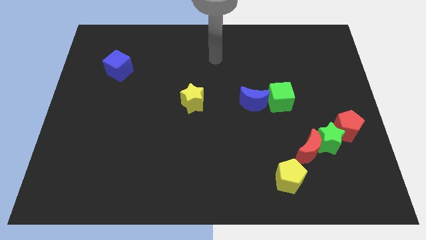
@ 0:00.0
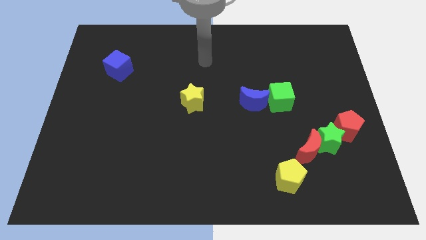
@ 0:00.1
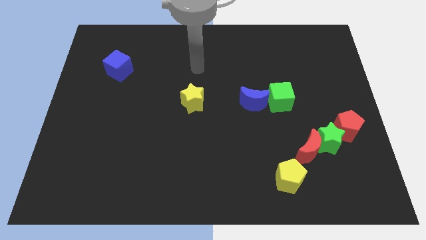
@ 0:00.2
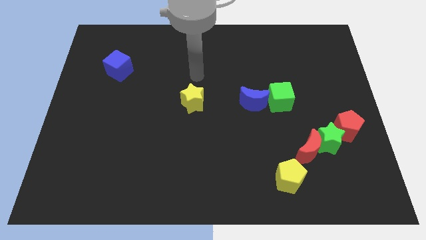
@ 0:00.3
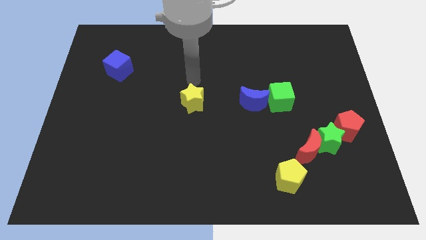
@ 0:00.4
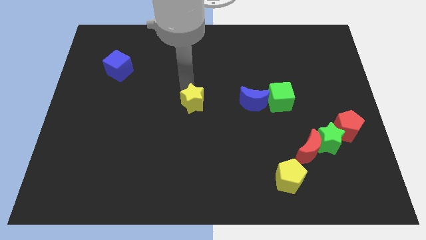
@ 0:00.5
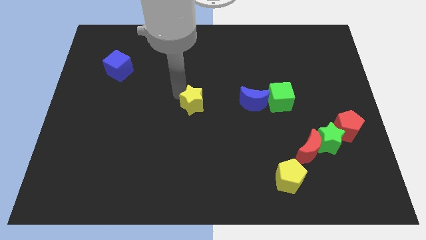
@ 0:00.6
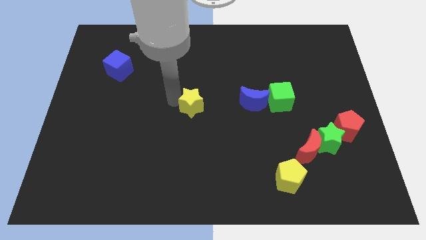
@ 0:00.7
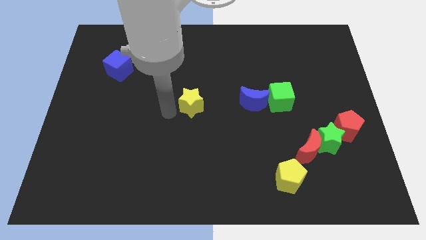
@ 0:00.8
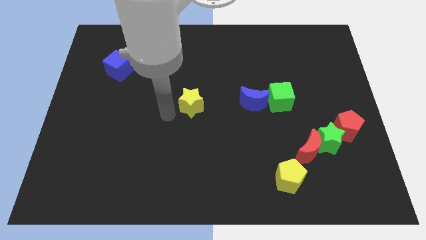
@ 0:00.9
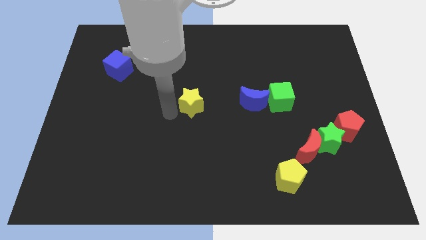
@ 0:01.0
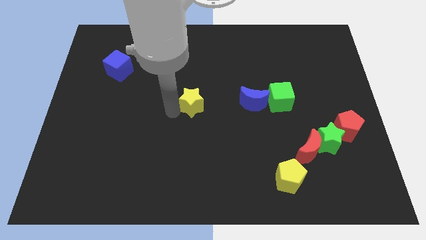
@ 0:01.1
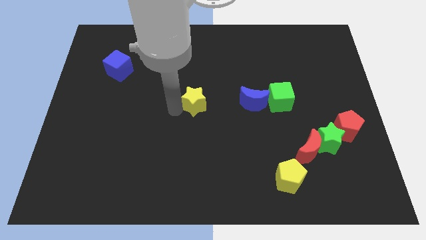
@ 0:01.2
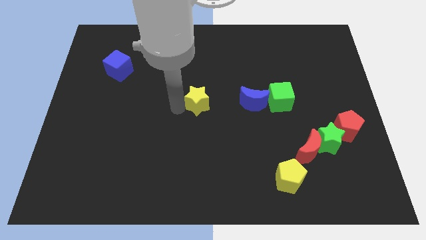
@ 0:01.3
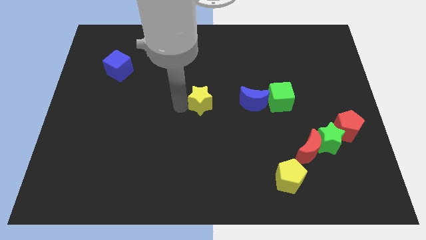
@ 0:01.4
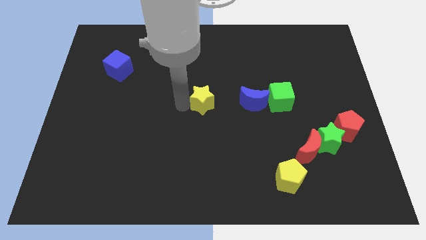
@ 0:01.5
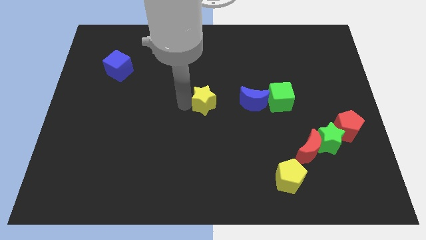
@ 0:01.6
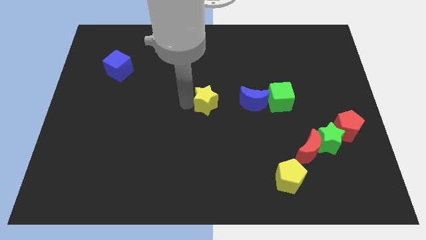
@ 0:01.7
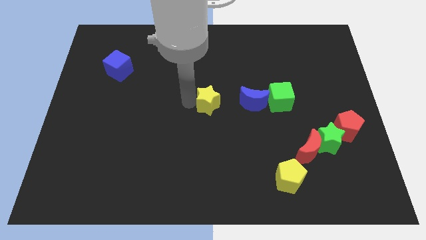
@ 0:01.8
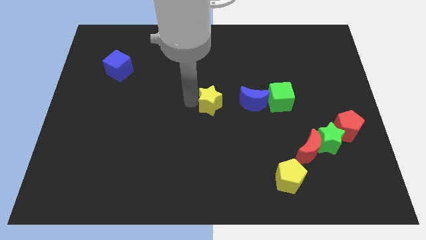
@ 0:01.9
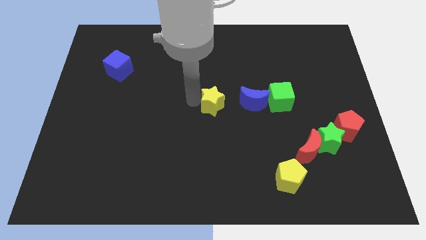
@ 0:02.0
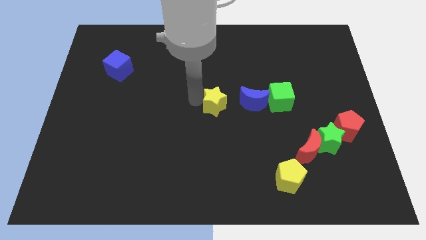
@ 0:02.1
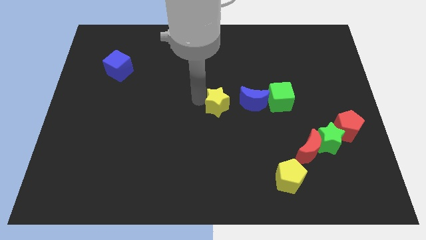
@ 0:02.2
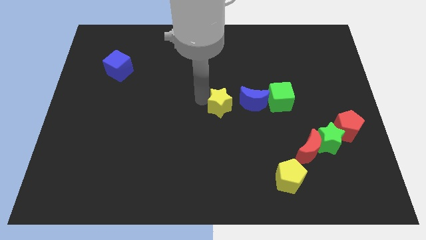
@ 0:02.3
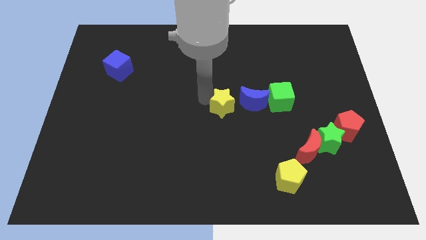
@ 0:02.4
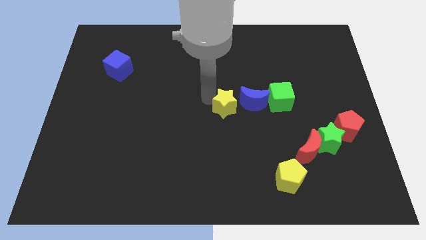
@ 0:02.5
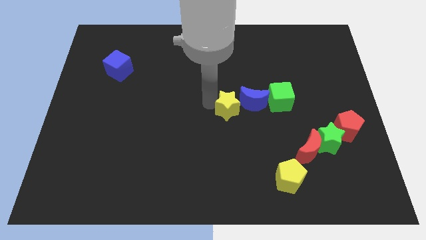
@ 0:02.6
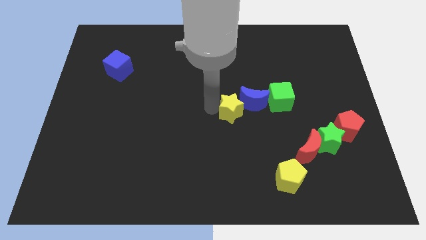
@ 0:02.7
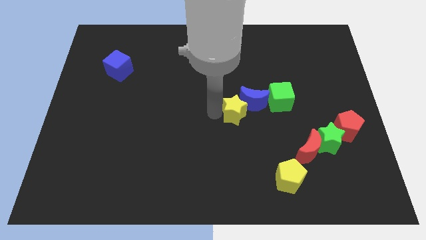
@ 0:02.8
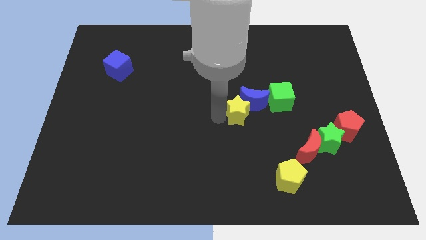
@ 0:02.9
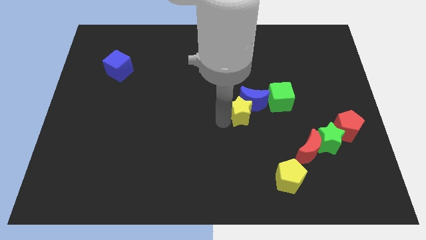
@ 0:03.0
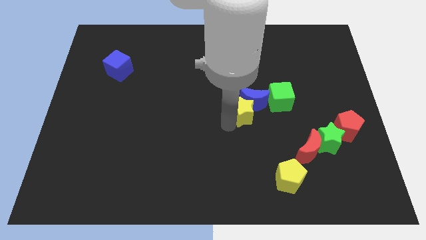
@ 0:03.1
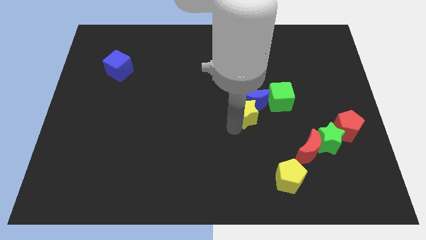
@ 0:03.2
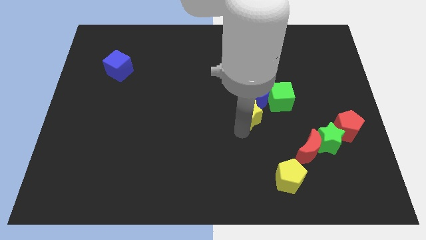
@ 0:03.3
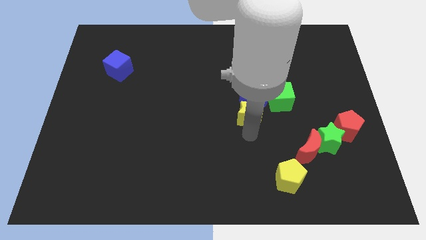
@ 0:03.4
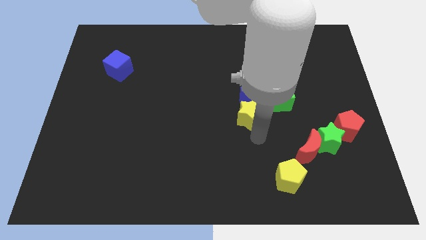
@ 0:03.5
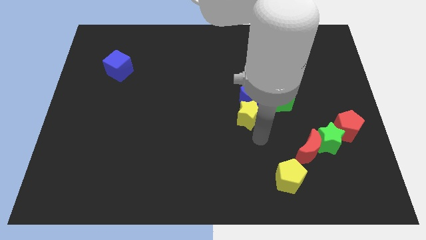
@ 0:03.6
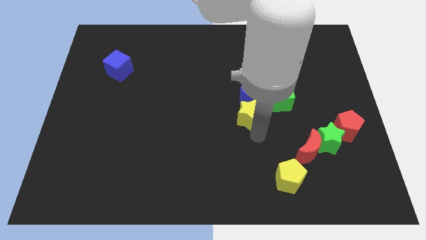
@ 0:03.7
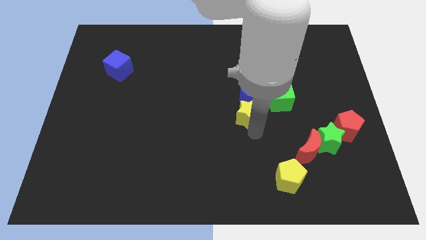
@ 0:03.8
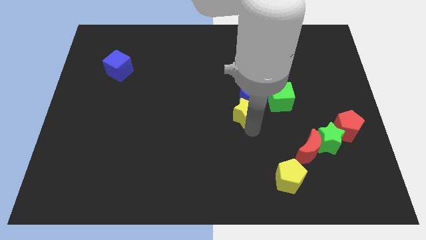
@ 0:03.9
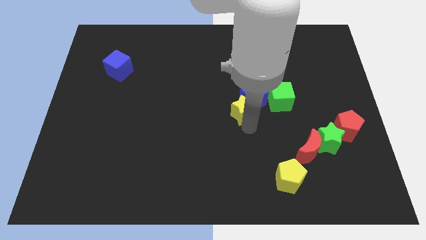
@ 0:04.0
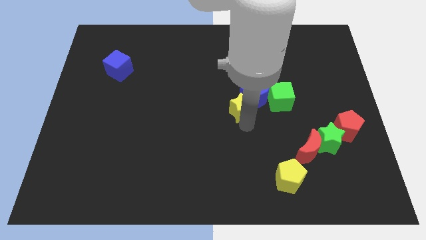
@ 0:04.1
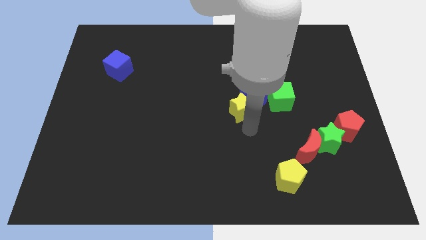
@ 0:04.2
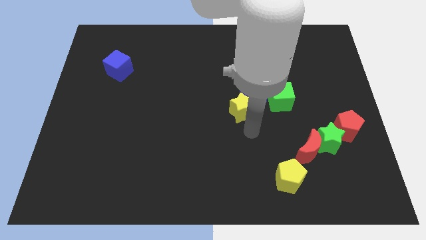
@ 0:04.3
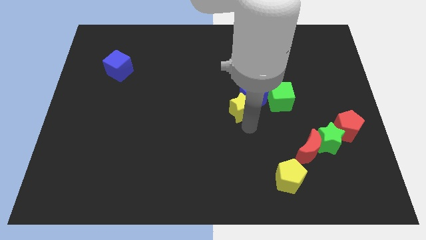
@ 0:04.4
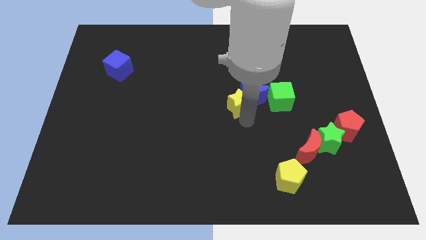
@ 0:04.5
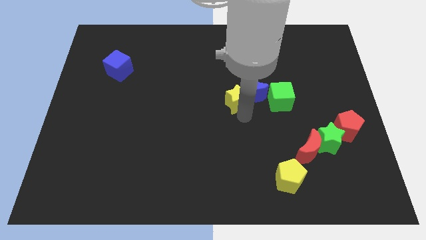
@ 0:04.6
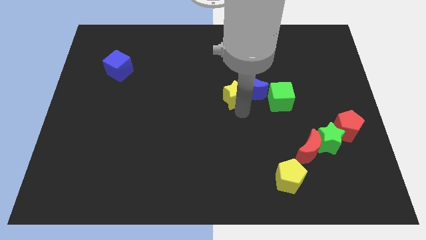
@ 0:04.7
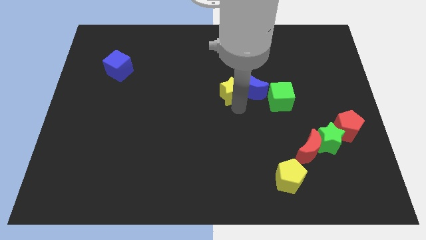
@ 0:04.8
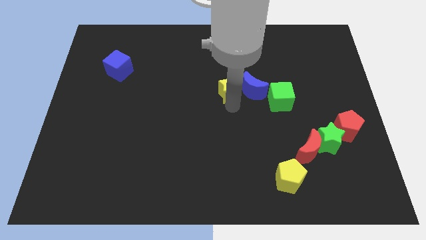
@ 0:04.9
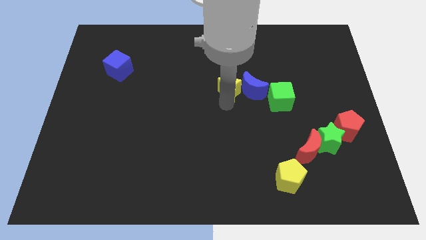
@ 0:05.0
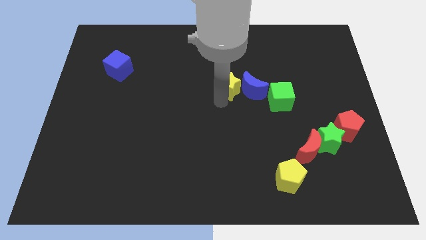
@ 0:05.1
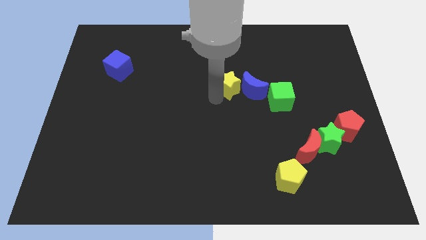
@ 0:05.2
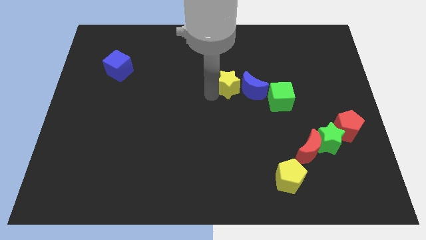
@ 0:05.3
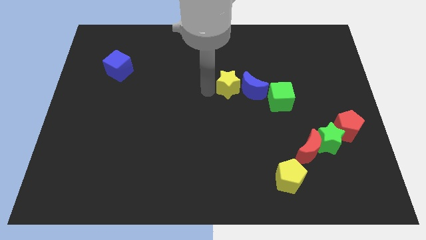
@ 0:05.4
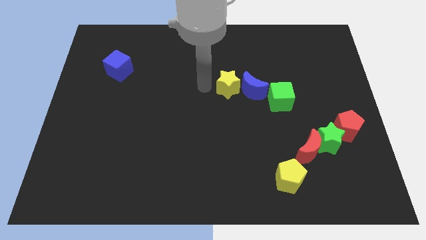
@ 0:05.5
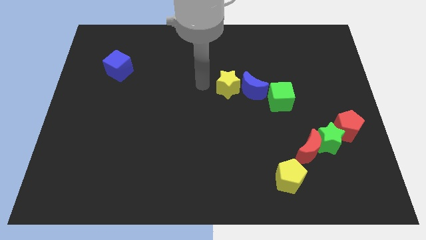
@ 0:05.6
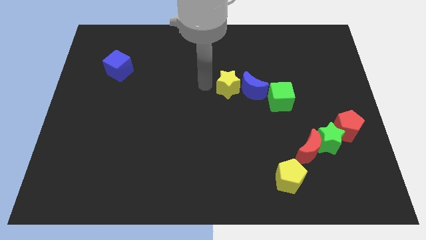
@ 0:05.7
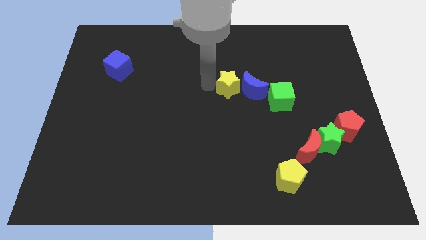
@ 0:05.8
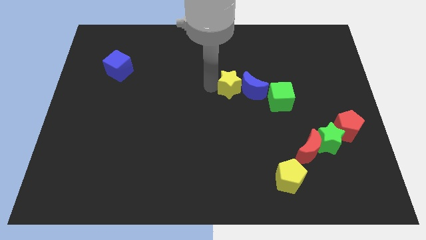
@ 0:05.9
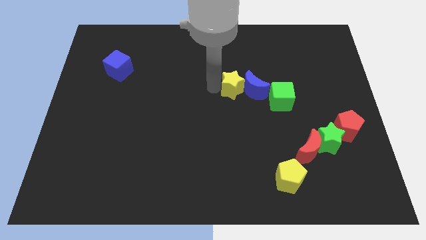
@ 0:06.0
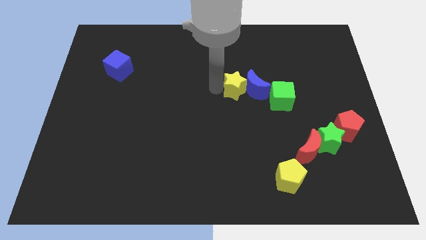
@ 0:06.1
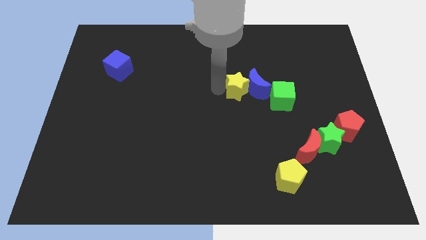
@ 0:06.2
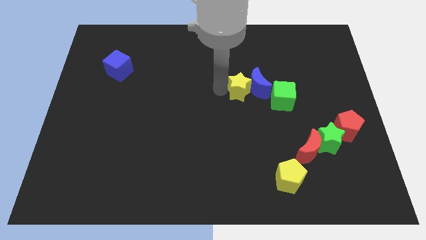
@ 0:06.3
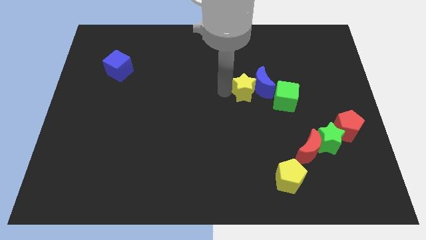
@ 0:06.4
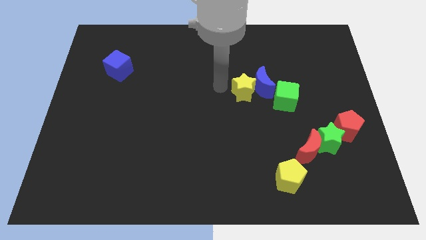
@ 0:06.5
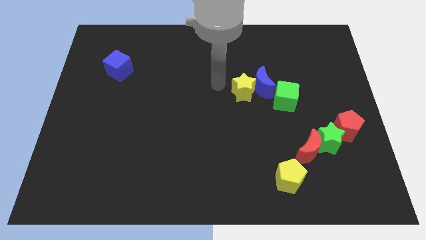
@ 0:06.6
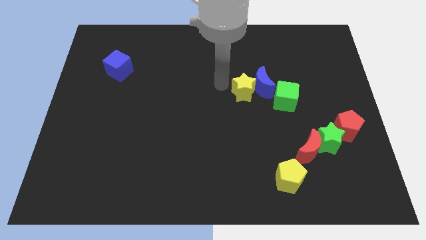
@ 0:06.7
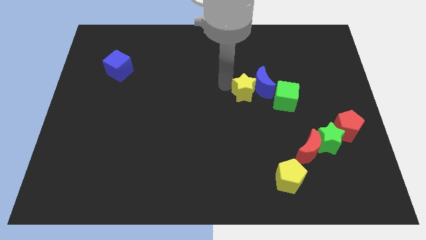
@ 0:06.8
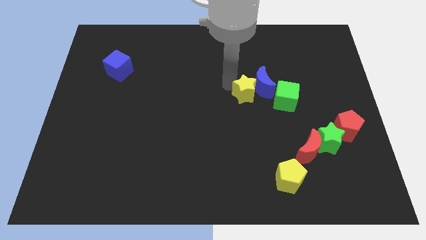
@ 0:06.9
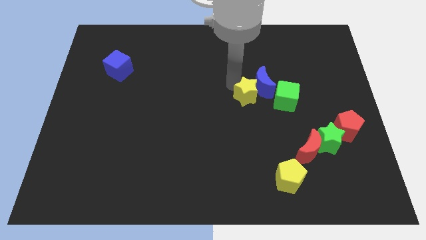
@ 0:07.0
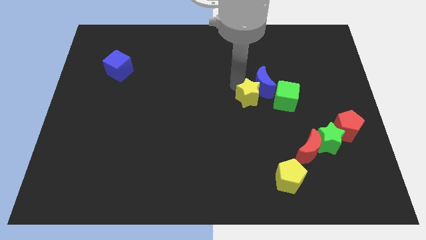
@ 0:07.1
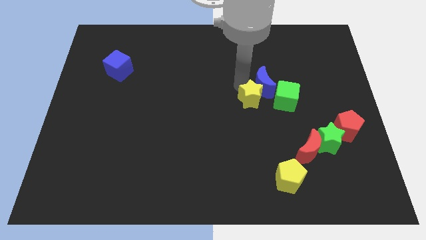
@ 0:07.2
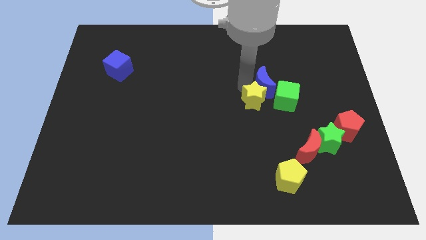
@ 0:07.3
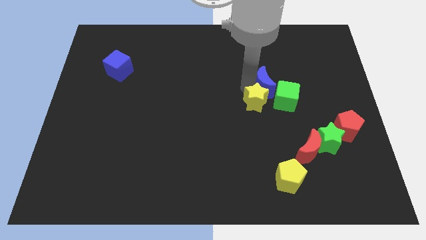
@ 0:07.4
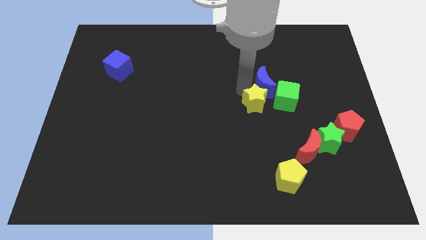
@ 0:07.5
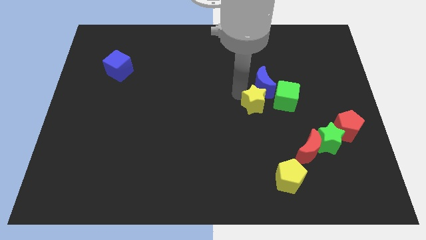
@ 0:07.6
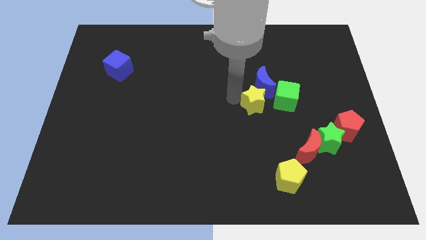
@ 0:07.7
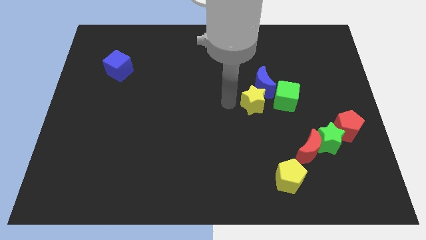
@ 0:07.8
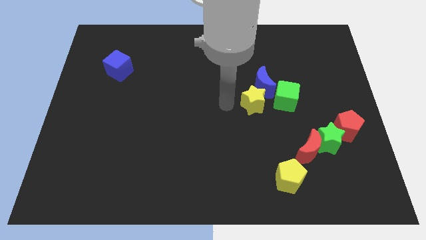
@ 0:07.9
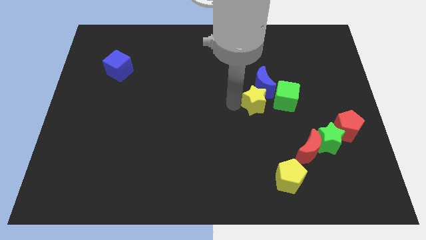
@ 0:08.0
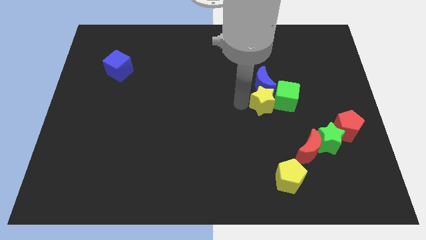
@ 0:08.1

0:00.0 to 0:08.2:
push the yellow star towards the green cube
